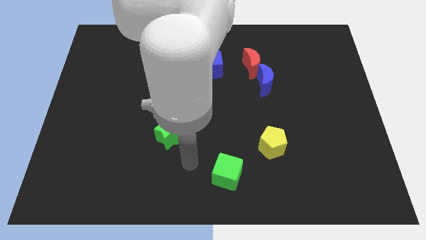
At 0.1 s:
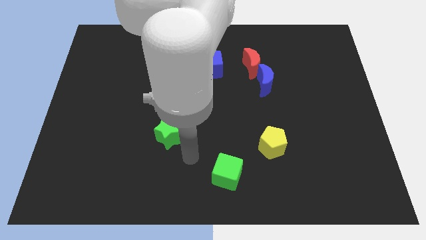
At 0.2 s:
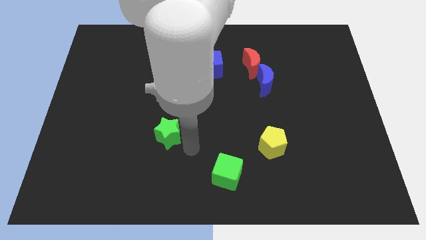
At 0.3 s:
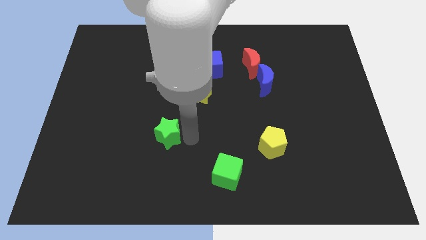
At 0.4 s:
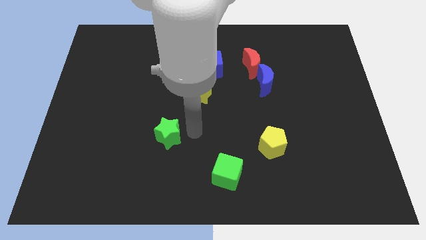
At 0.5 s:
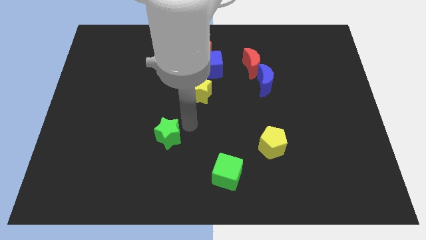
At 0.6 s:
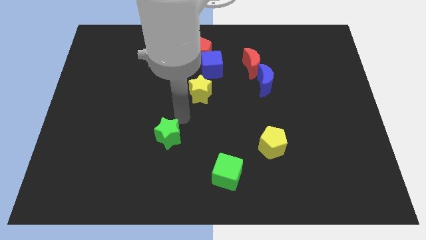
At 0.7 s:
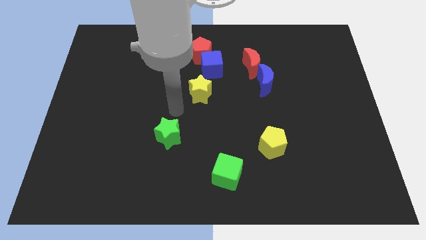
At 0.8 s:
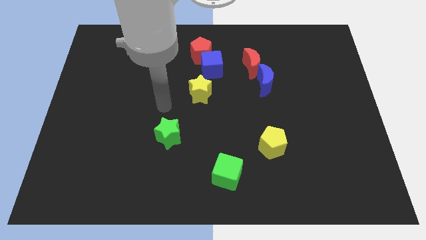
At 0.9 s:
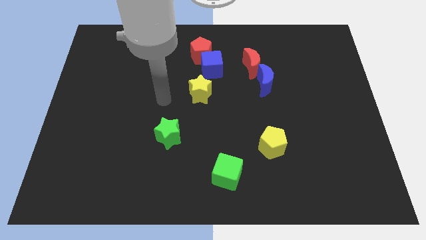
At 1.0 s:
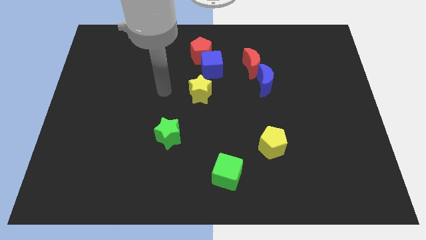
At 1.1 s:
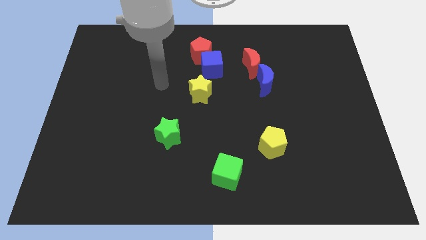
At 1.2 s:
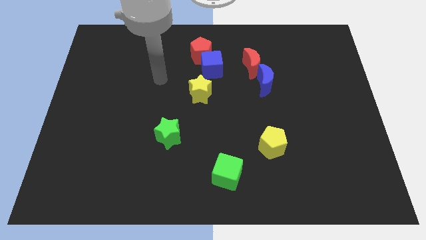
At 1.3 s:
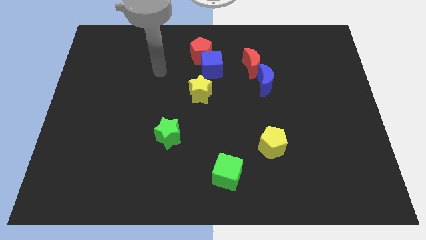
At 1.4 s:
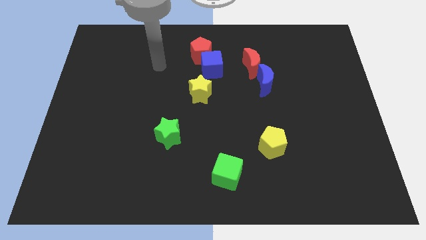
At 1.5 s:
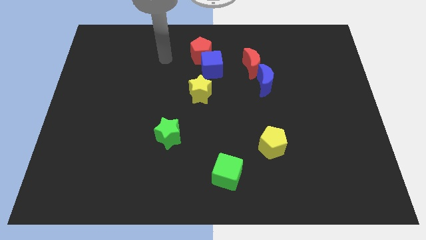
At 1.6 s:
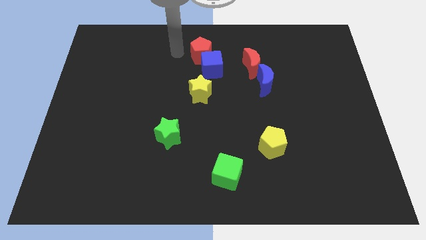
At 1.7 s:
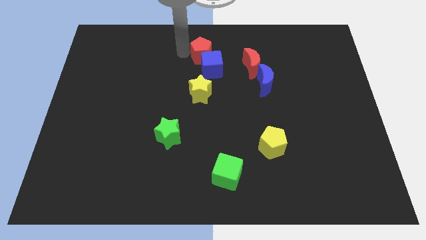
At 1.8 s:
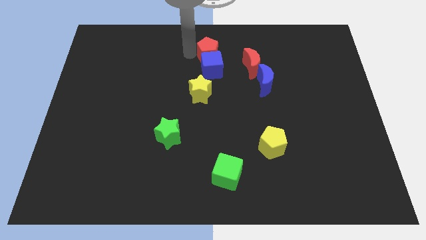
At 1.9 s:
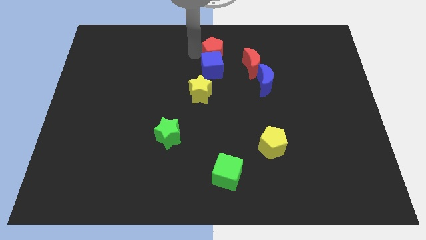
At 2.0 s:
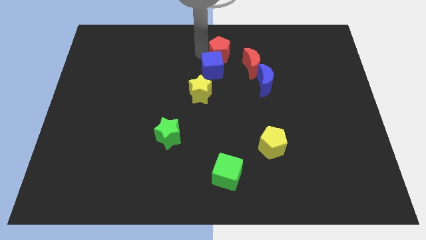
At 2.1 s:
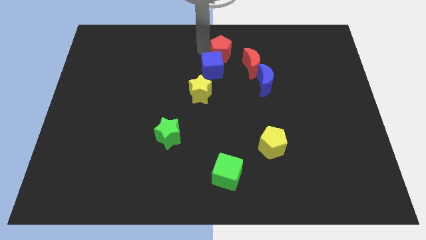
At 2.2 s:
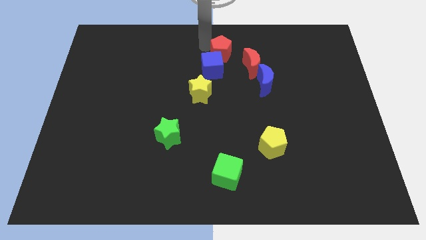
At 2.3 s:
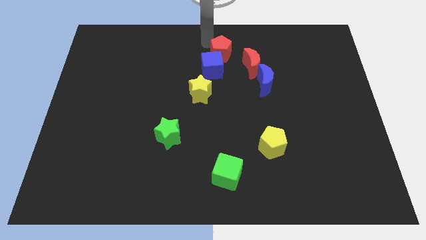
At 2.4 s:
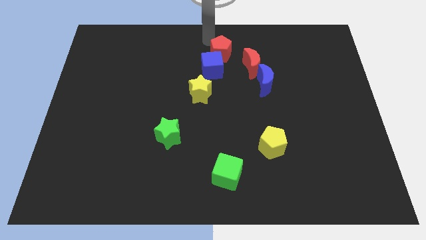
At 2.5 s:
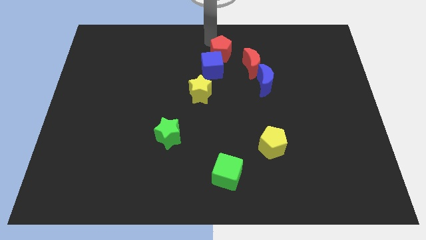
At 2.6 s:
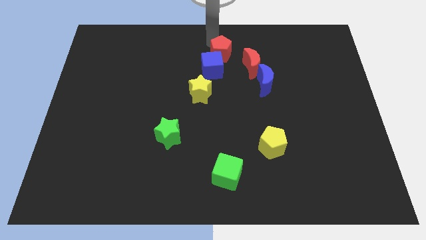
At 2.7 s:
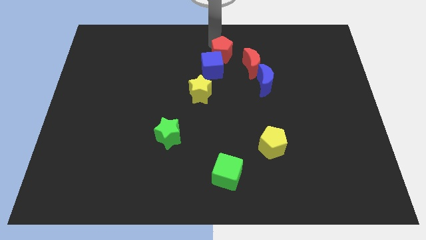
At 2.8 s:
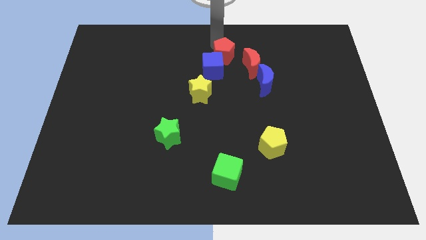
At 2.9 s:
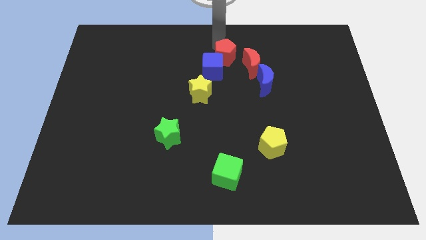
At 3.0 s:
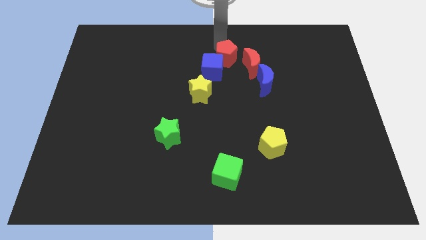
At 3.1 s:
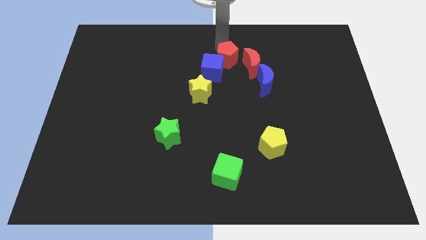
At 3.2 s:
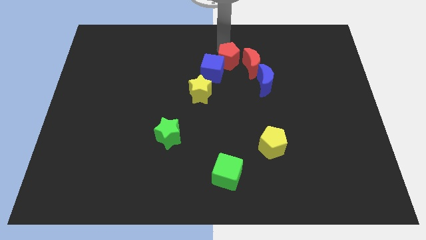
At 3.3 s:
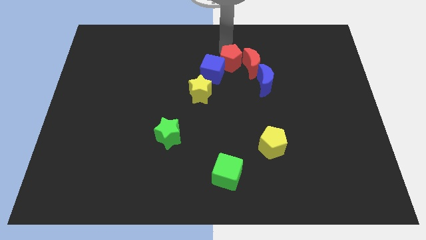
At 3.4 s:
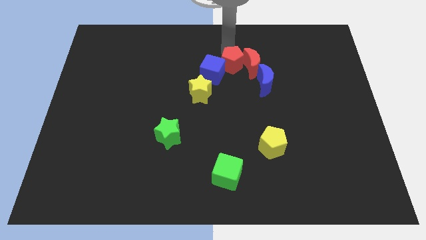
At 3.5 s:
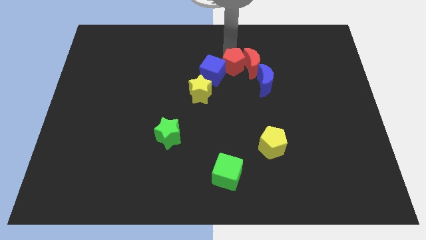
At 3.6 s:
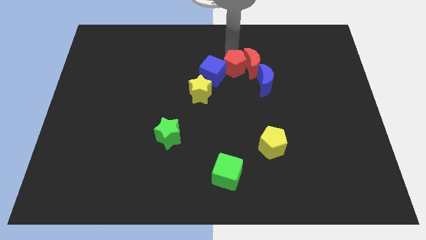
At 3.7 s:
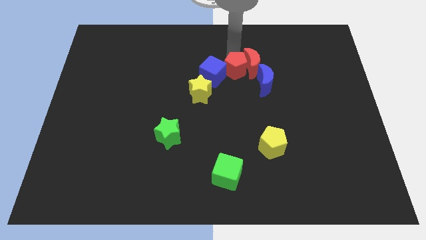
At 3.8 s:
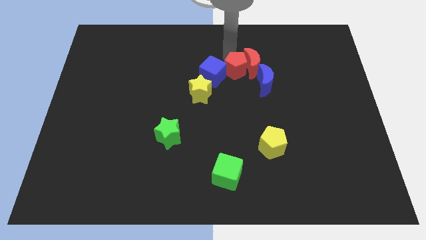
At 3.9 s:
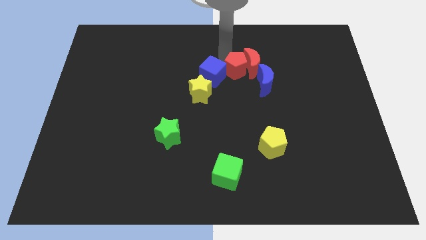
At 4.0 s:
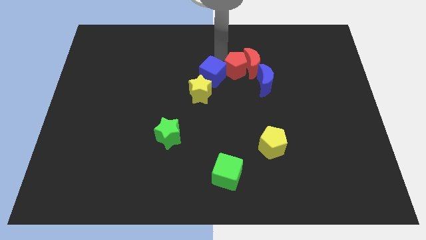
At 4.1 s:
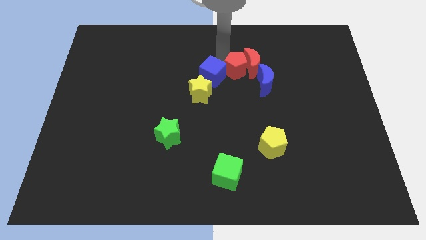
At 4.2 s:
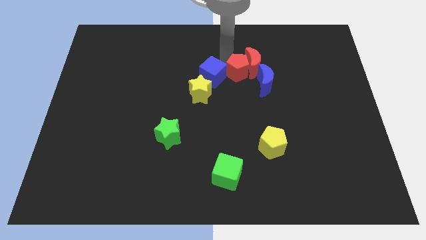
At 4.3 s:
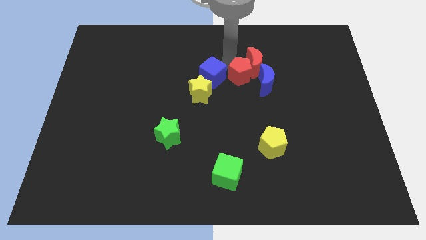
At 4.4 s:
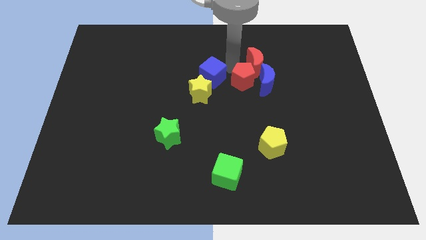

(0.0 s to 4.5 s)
slide the red pentagon close to the blue moon

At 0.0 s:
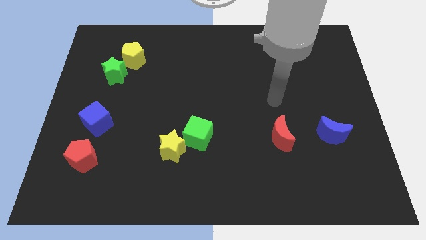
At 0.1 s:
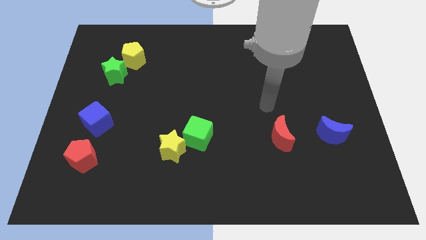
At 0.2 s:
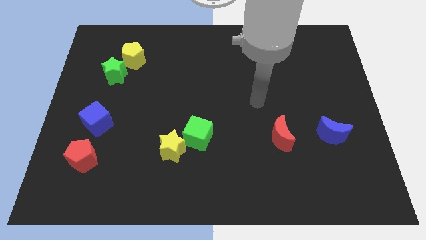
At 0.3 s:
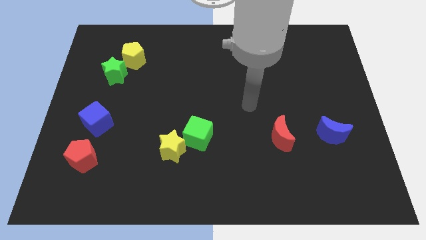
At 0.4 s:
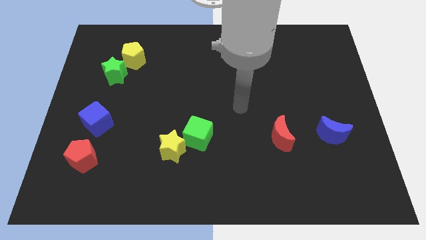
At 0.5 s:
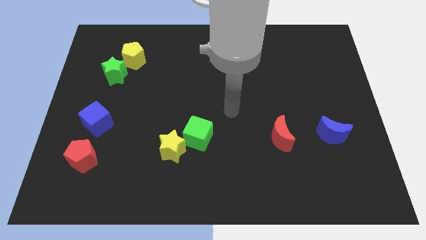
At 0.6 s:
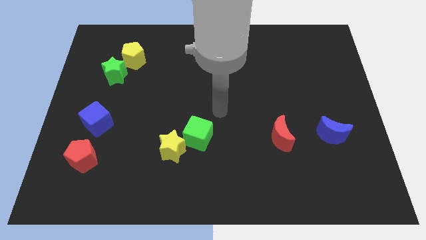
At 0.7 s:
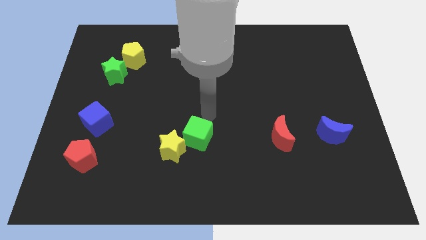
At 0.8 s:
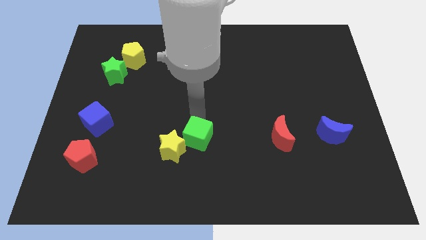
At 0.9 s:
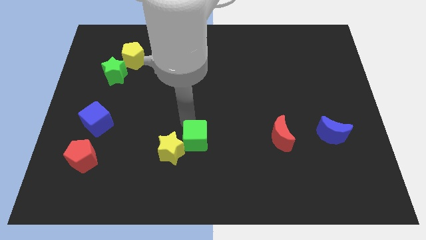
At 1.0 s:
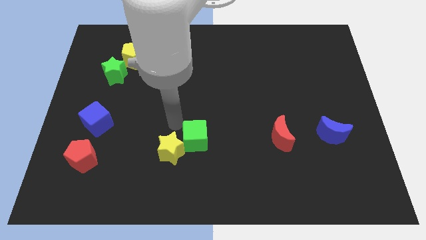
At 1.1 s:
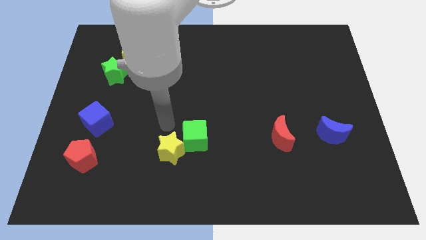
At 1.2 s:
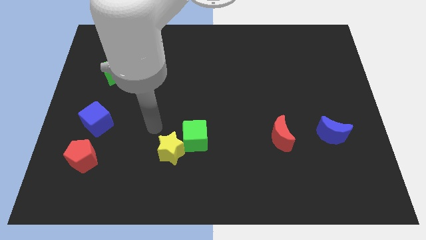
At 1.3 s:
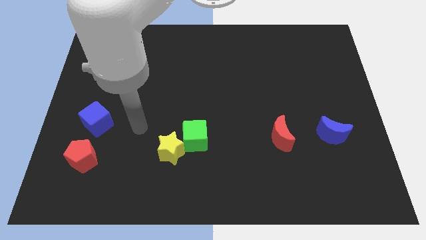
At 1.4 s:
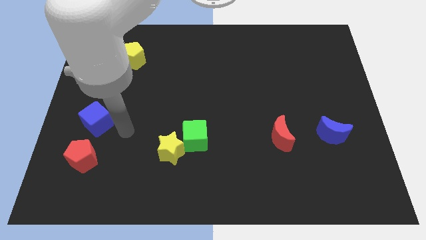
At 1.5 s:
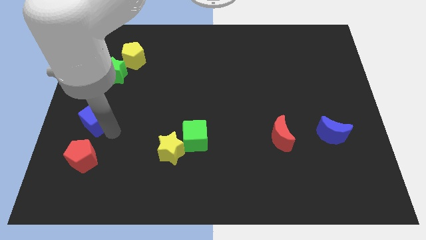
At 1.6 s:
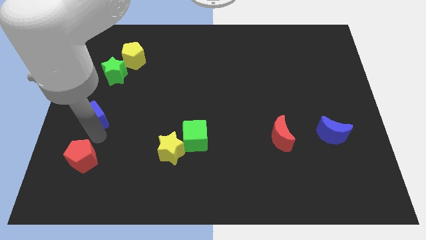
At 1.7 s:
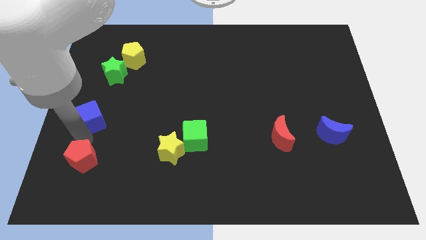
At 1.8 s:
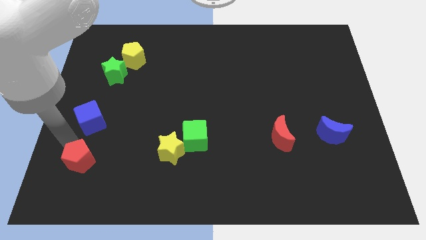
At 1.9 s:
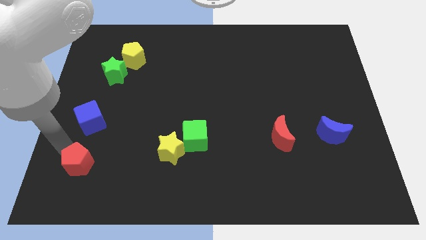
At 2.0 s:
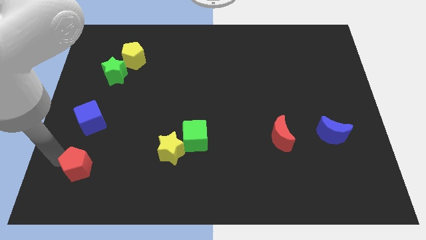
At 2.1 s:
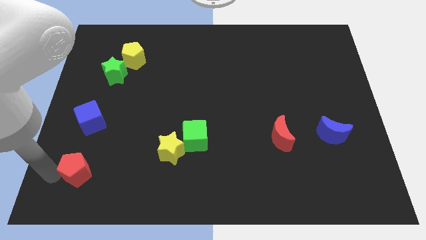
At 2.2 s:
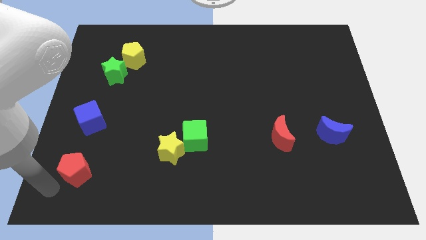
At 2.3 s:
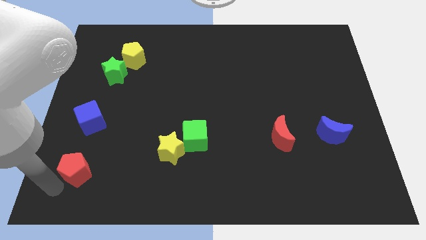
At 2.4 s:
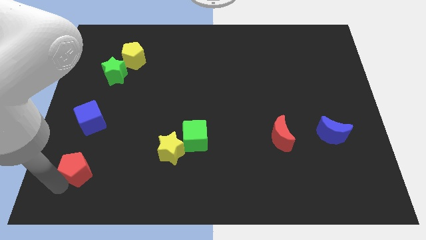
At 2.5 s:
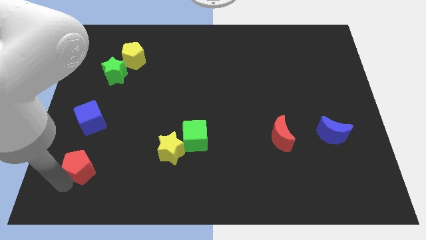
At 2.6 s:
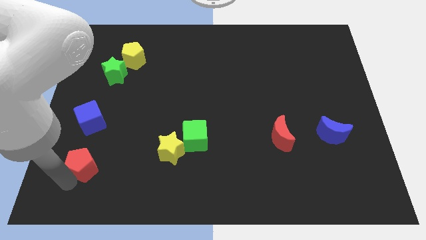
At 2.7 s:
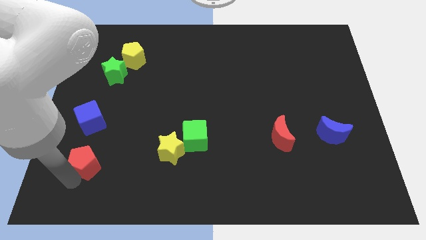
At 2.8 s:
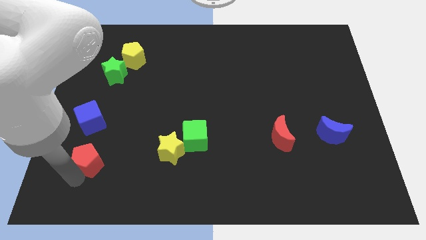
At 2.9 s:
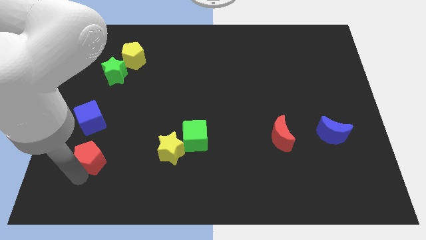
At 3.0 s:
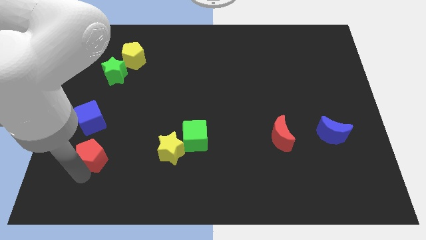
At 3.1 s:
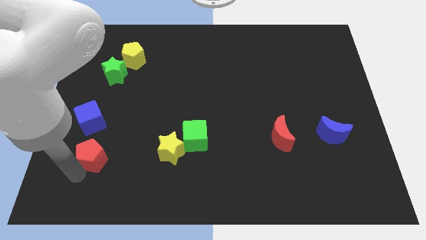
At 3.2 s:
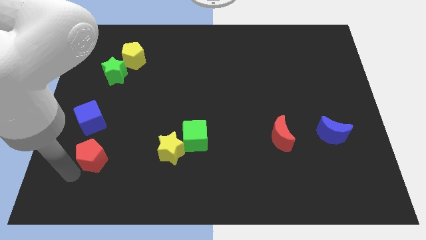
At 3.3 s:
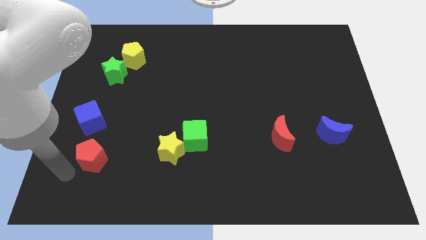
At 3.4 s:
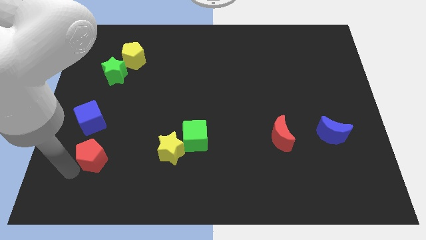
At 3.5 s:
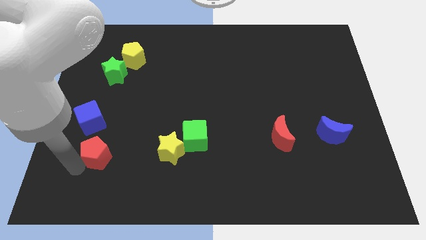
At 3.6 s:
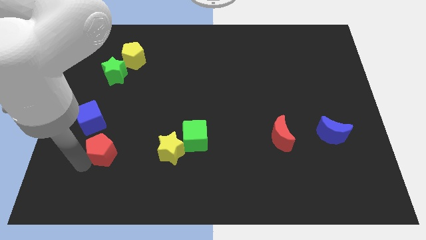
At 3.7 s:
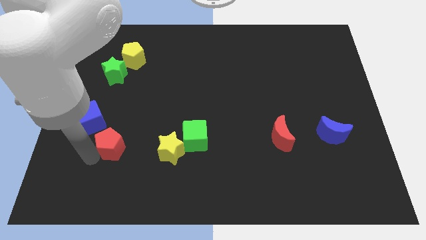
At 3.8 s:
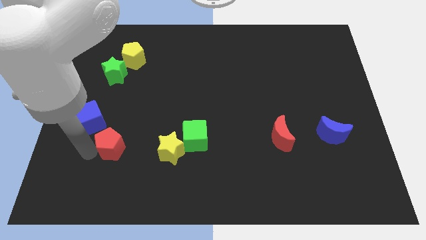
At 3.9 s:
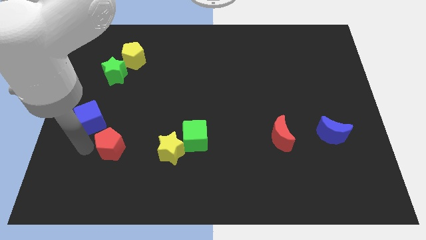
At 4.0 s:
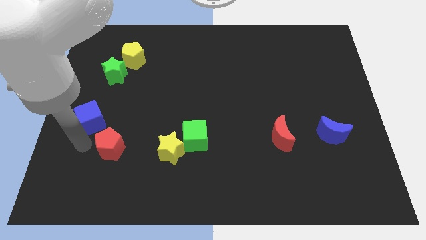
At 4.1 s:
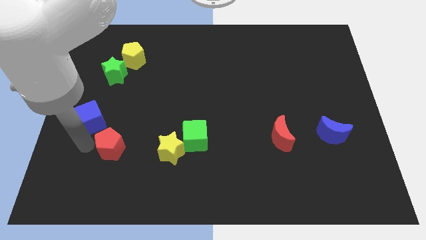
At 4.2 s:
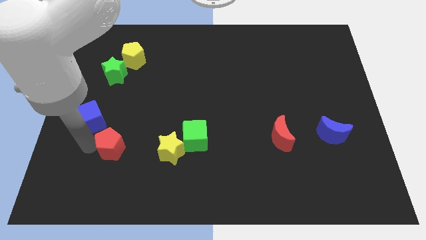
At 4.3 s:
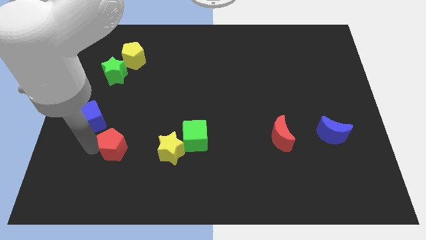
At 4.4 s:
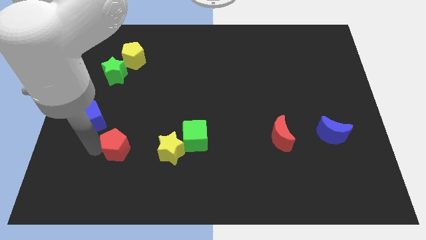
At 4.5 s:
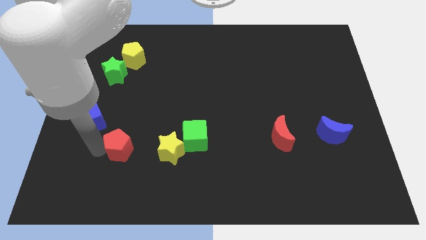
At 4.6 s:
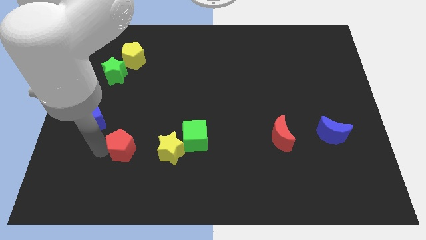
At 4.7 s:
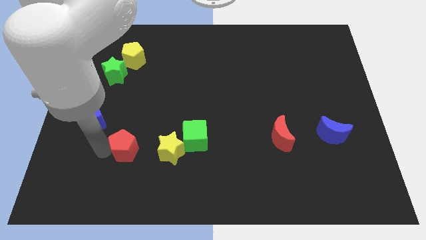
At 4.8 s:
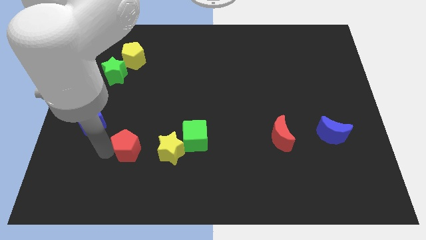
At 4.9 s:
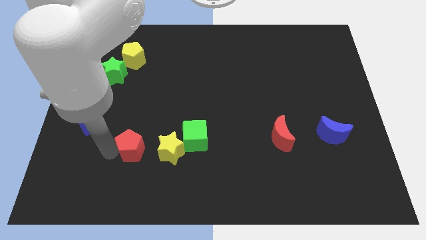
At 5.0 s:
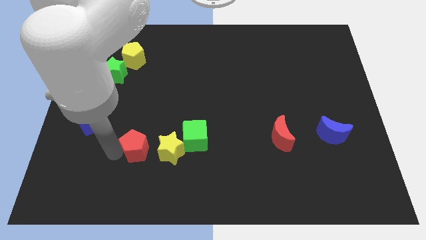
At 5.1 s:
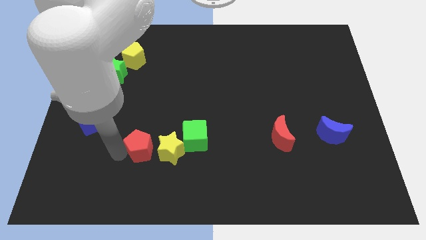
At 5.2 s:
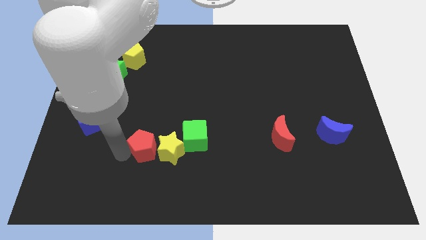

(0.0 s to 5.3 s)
move the red pentagon to the yellow star
